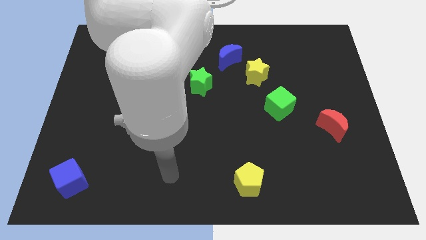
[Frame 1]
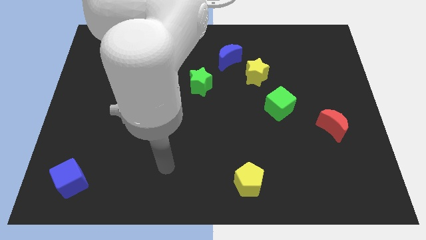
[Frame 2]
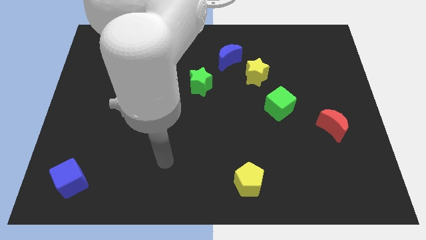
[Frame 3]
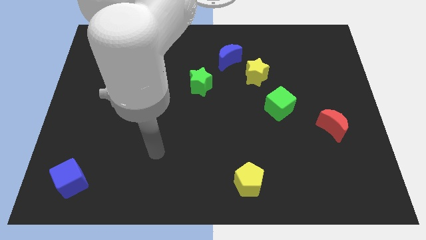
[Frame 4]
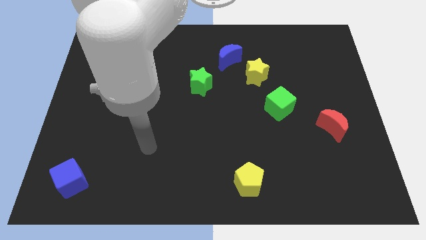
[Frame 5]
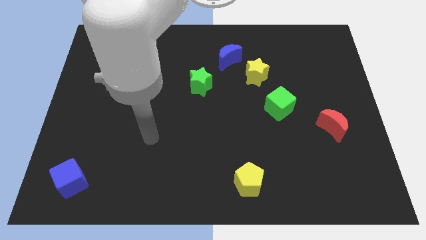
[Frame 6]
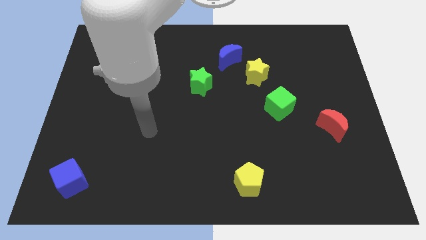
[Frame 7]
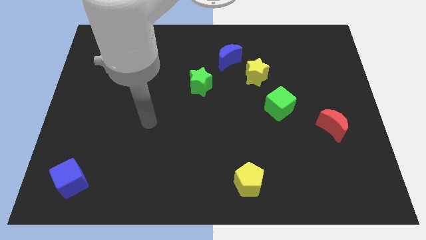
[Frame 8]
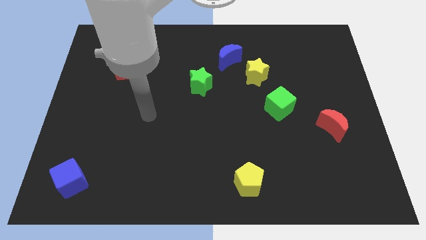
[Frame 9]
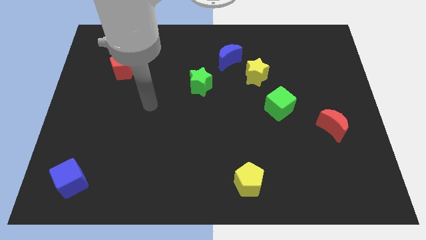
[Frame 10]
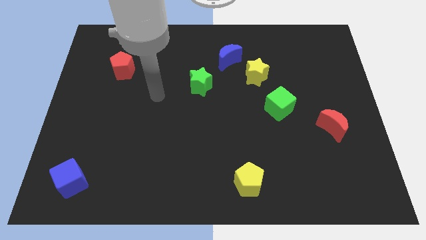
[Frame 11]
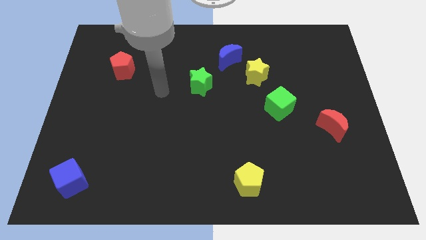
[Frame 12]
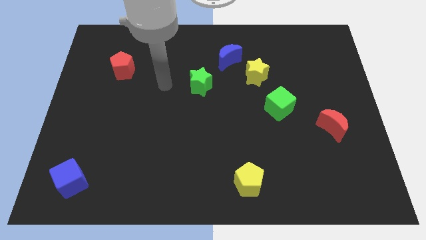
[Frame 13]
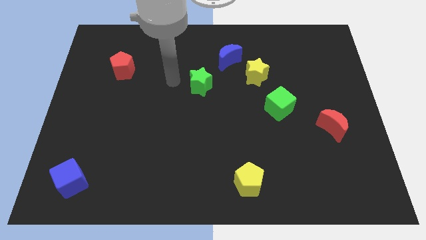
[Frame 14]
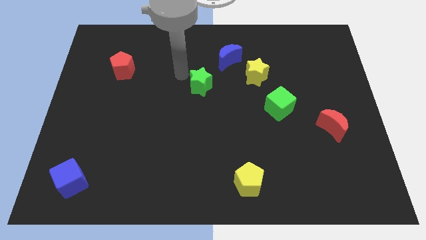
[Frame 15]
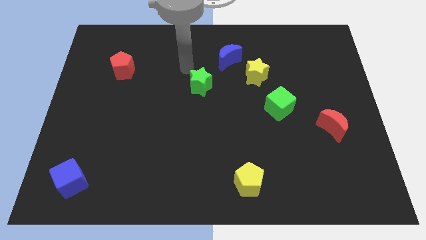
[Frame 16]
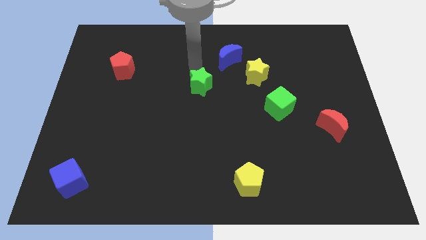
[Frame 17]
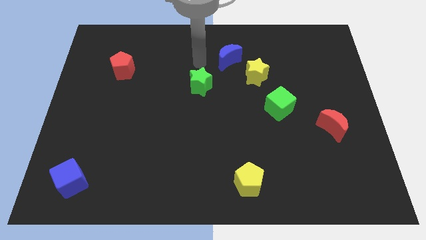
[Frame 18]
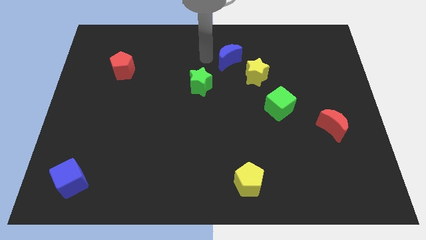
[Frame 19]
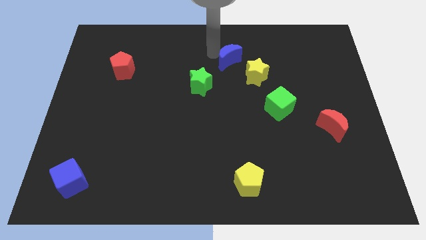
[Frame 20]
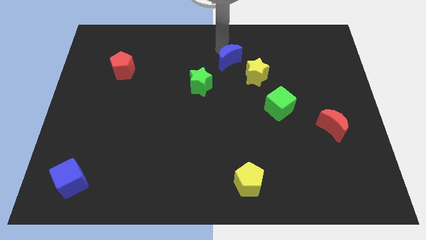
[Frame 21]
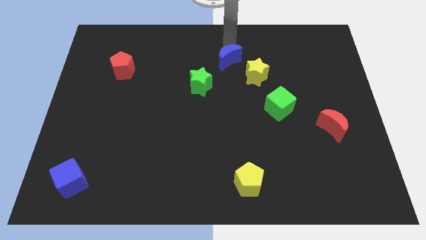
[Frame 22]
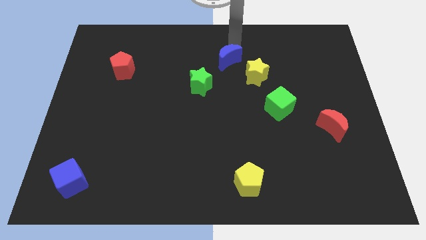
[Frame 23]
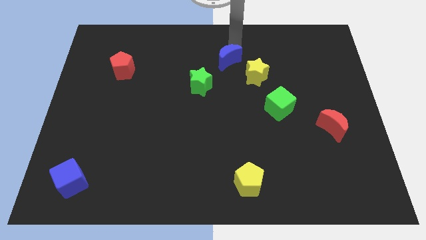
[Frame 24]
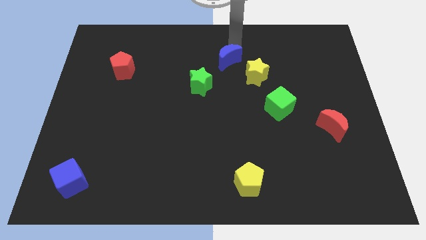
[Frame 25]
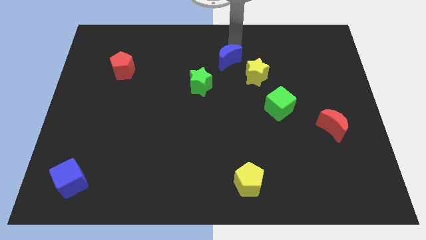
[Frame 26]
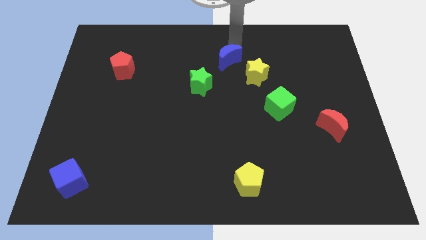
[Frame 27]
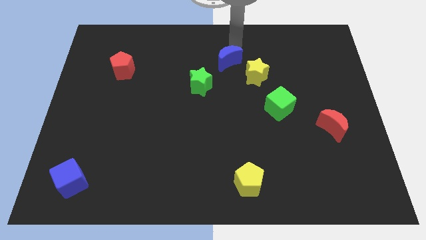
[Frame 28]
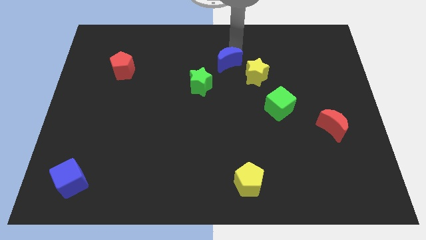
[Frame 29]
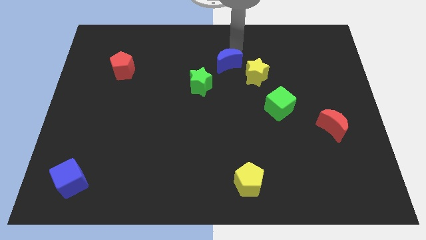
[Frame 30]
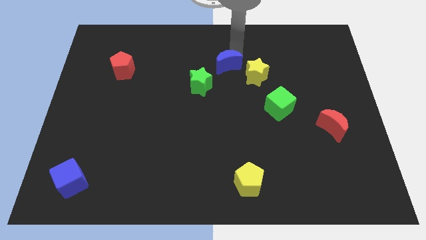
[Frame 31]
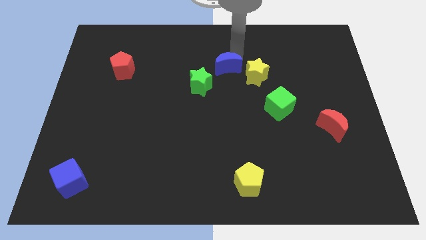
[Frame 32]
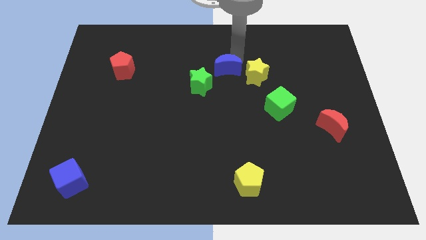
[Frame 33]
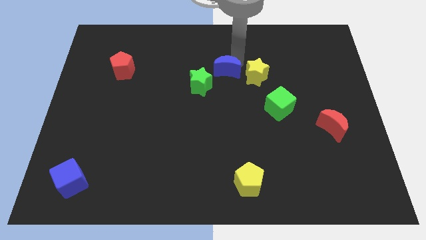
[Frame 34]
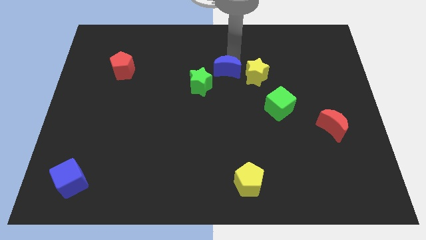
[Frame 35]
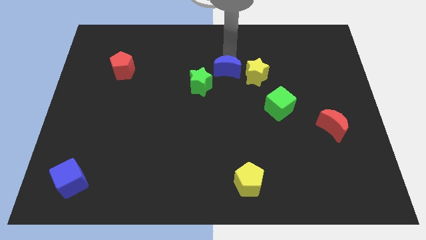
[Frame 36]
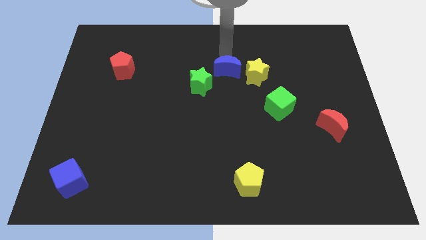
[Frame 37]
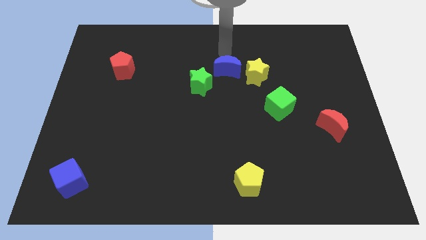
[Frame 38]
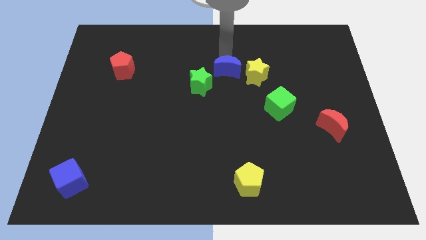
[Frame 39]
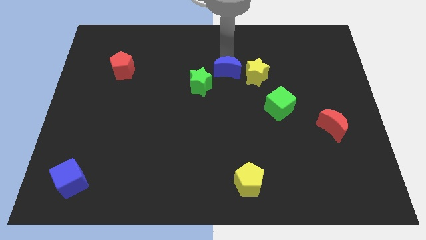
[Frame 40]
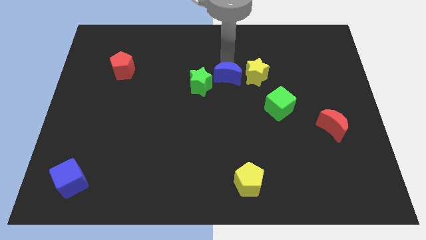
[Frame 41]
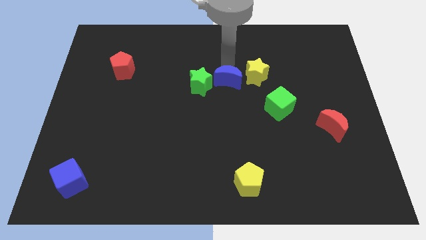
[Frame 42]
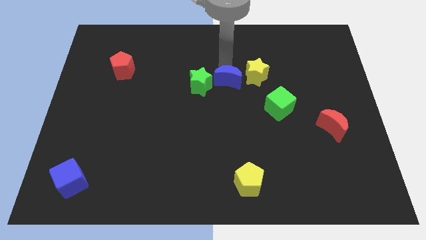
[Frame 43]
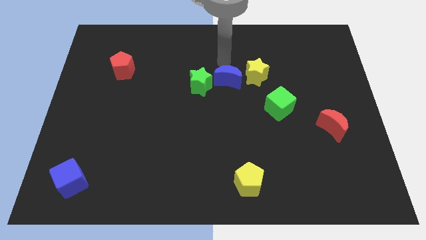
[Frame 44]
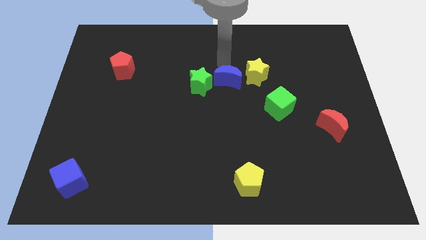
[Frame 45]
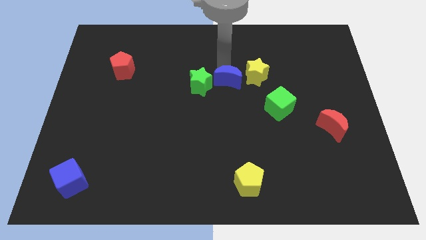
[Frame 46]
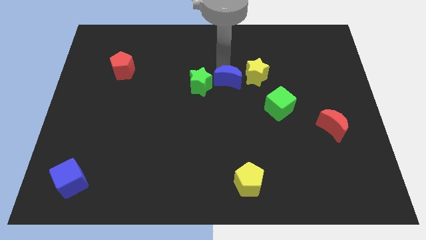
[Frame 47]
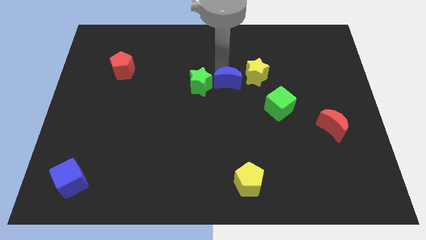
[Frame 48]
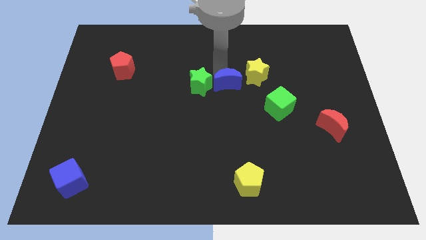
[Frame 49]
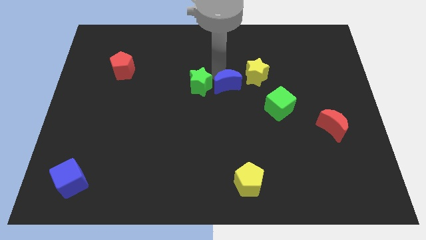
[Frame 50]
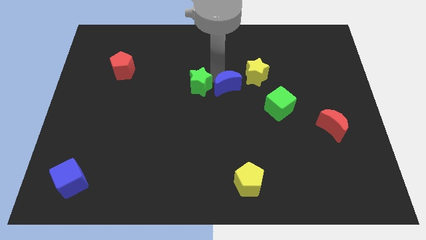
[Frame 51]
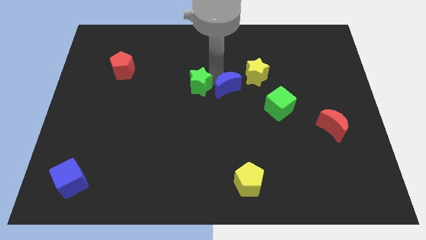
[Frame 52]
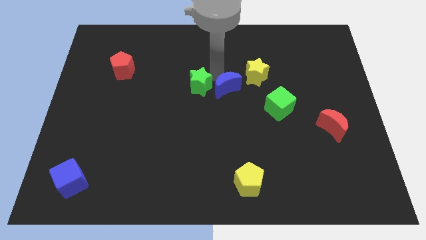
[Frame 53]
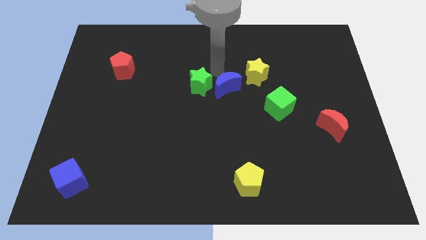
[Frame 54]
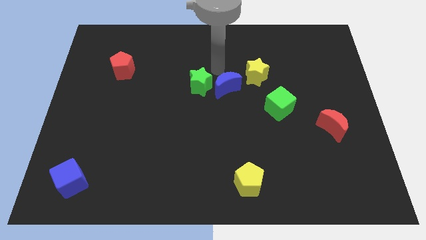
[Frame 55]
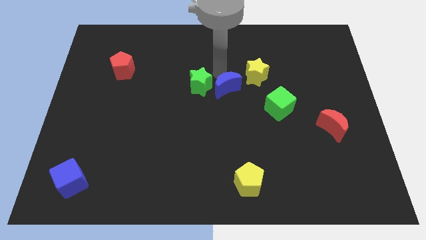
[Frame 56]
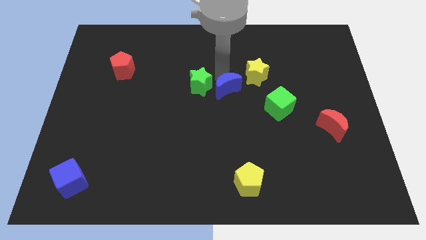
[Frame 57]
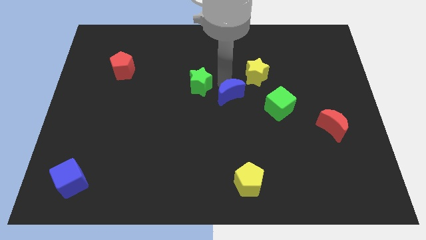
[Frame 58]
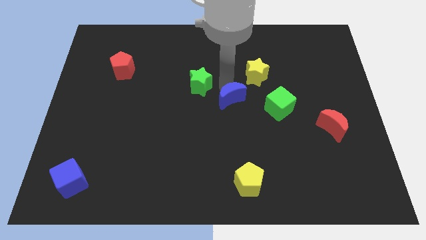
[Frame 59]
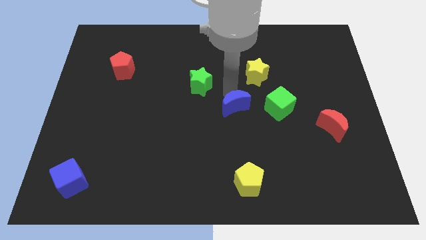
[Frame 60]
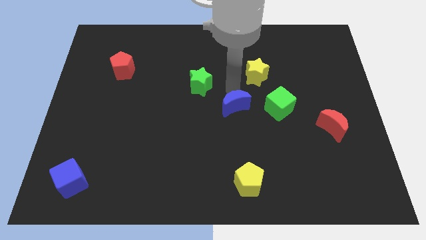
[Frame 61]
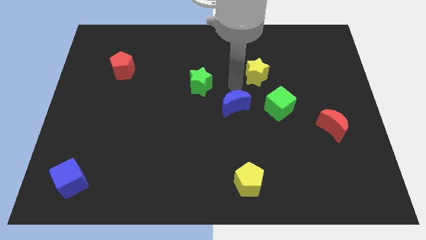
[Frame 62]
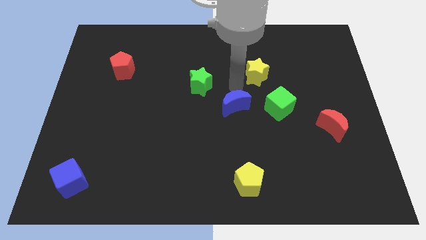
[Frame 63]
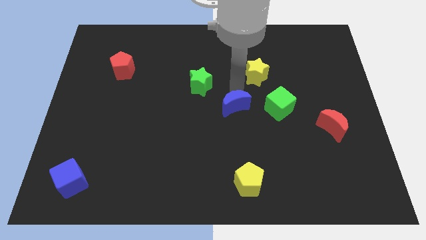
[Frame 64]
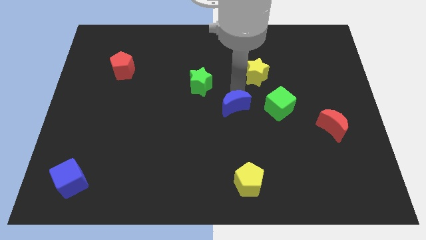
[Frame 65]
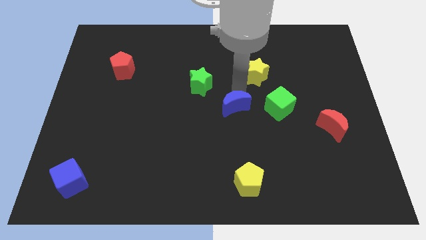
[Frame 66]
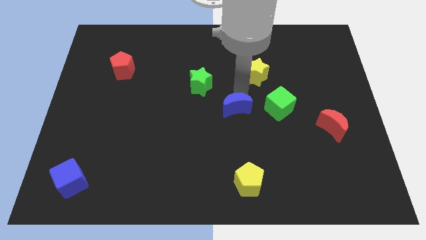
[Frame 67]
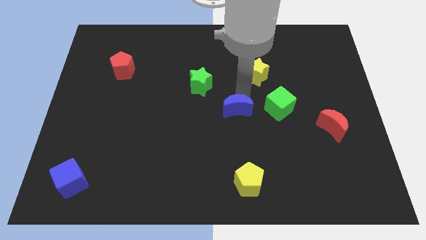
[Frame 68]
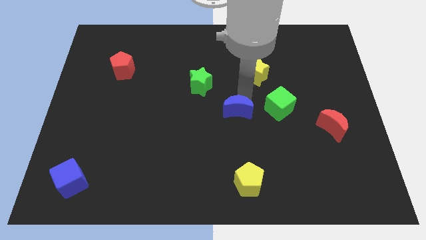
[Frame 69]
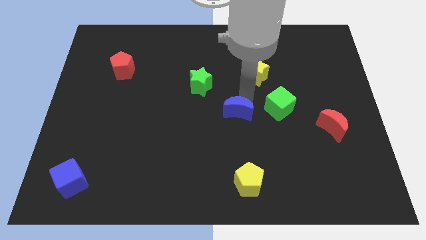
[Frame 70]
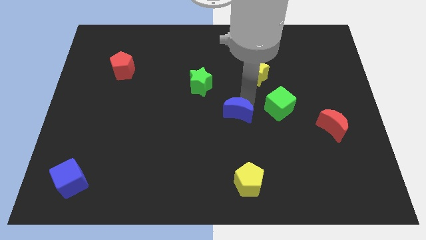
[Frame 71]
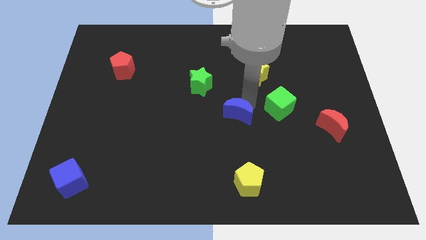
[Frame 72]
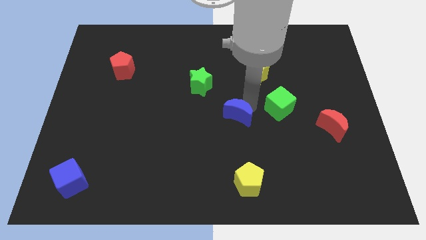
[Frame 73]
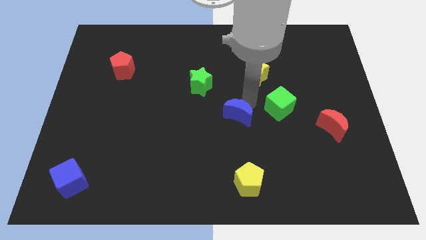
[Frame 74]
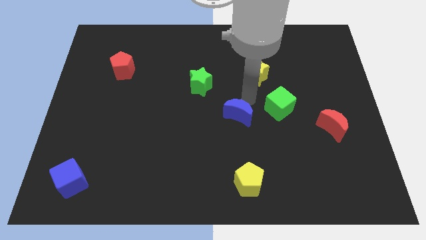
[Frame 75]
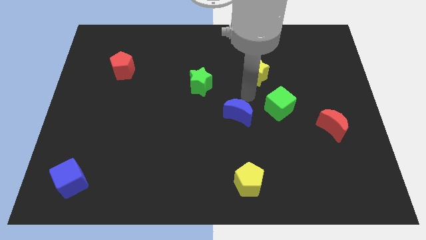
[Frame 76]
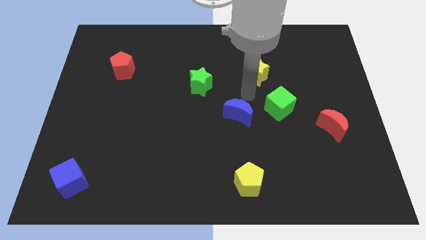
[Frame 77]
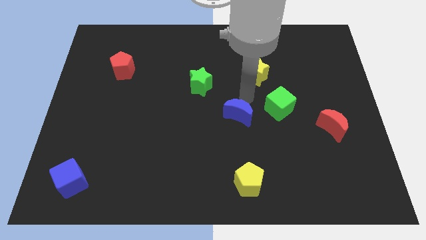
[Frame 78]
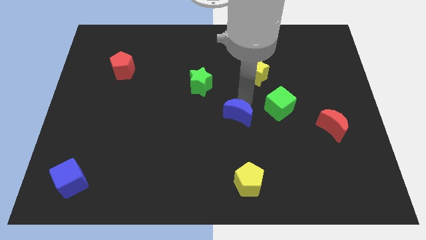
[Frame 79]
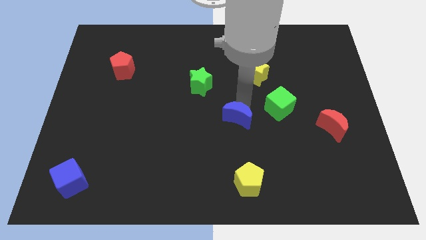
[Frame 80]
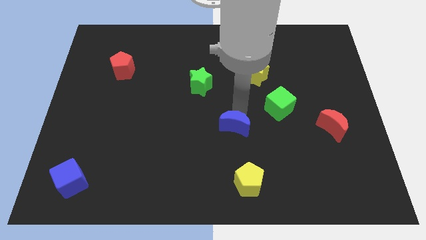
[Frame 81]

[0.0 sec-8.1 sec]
move the blue moon down
